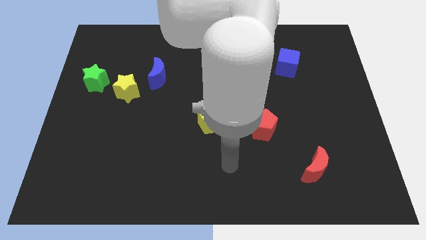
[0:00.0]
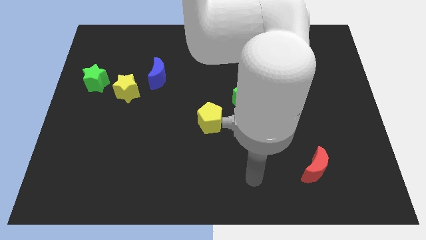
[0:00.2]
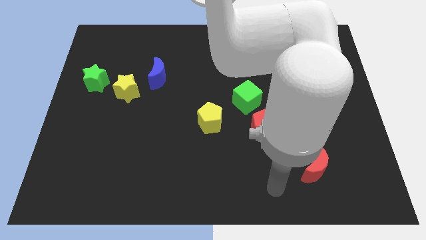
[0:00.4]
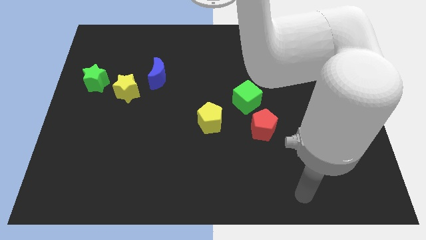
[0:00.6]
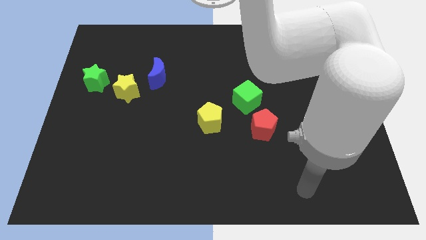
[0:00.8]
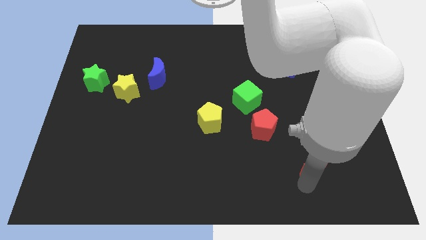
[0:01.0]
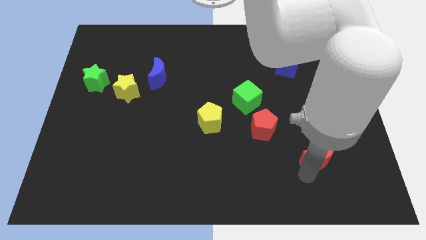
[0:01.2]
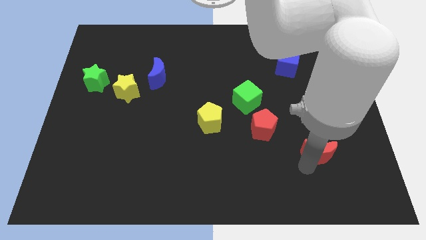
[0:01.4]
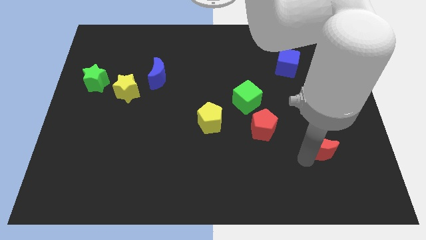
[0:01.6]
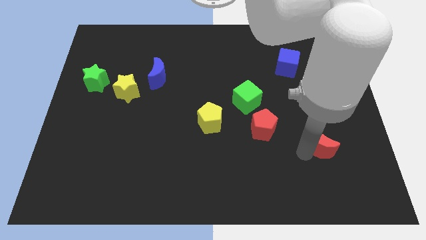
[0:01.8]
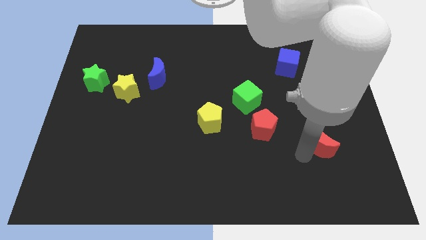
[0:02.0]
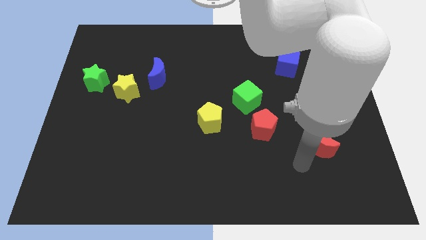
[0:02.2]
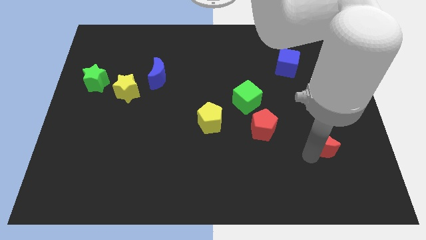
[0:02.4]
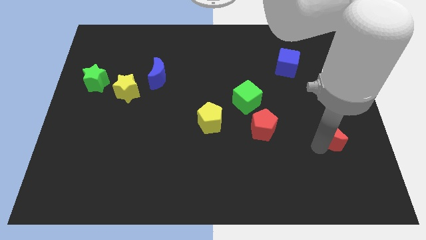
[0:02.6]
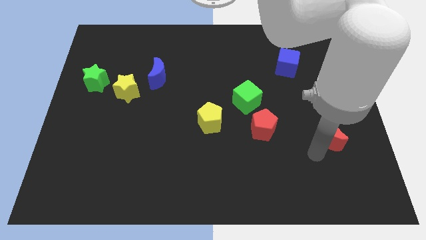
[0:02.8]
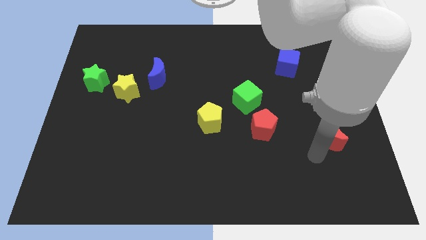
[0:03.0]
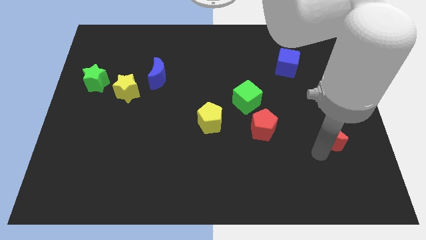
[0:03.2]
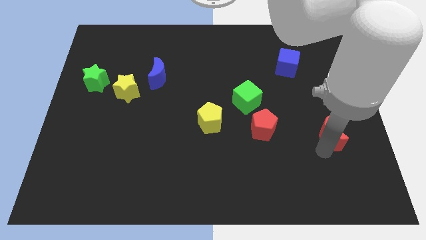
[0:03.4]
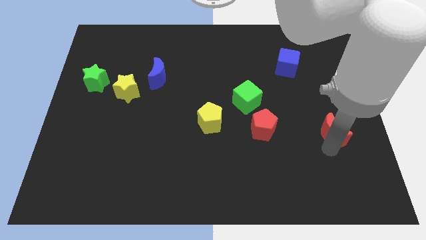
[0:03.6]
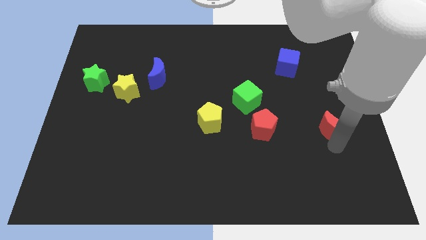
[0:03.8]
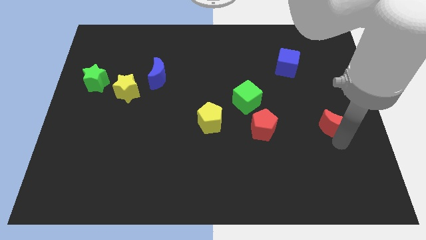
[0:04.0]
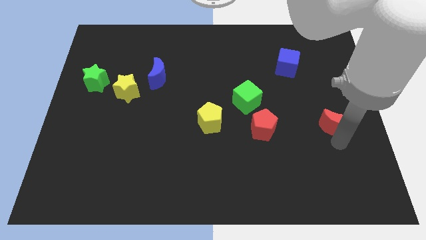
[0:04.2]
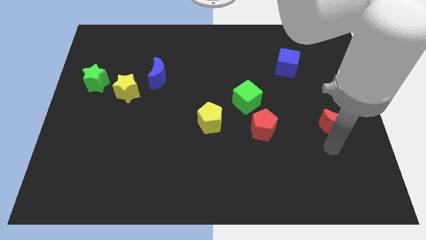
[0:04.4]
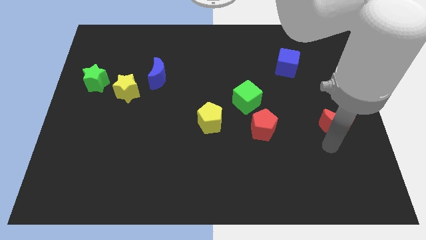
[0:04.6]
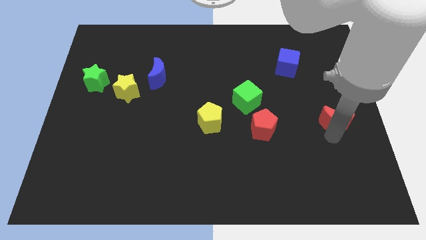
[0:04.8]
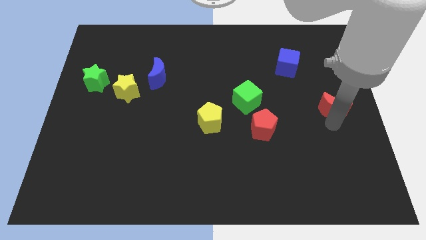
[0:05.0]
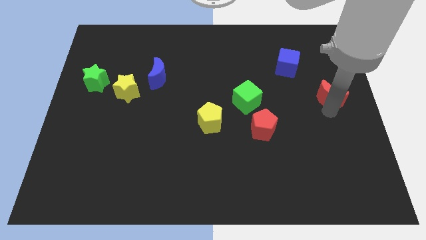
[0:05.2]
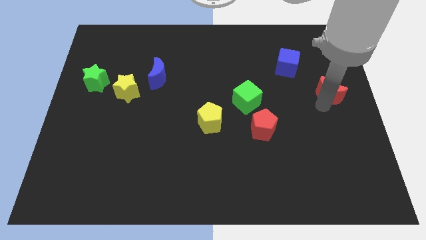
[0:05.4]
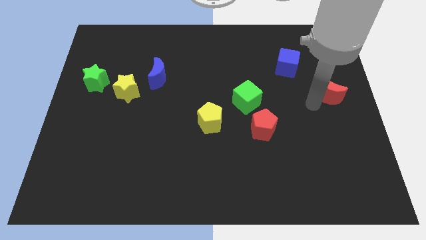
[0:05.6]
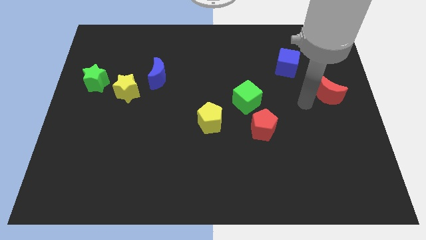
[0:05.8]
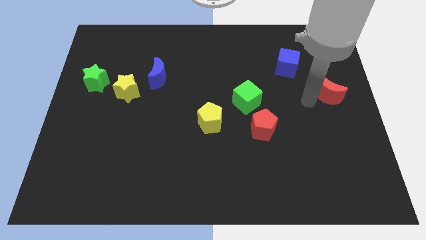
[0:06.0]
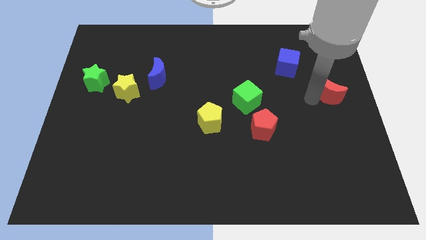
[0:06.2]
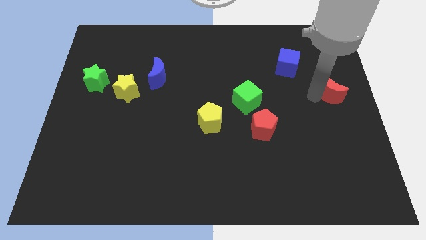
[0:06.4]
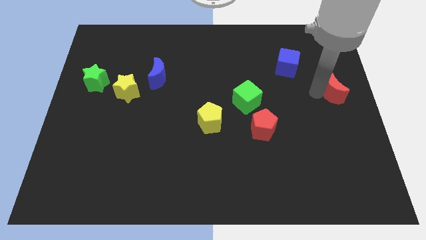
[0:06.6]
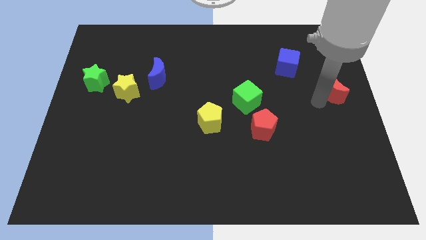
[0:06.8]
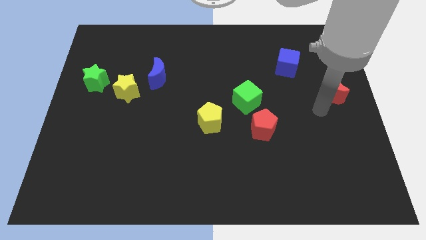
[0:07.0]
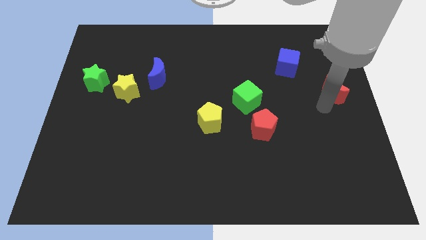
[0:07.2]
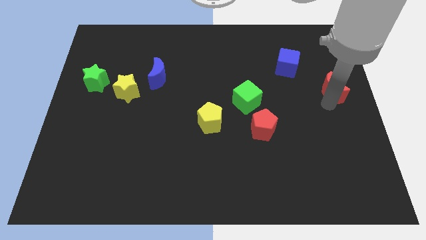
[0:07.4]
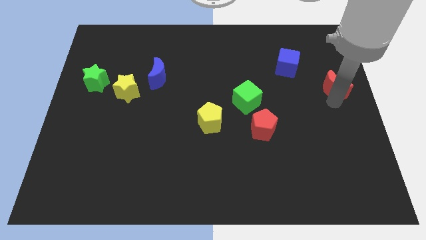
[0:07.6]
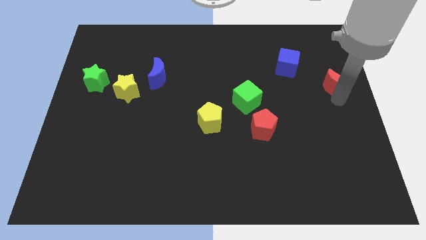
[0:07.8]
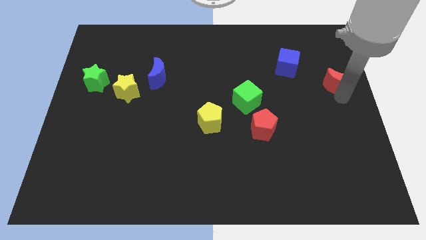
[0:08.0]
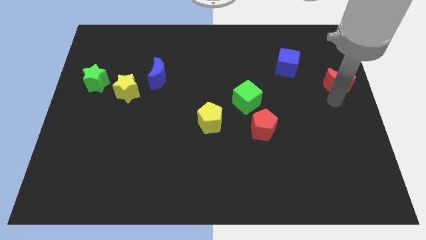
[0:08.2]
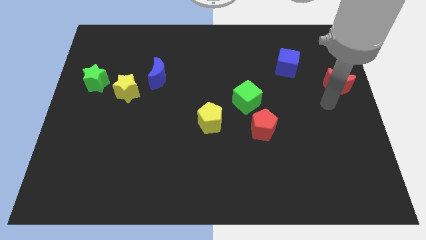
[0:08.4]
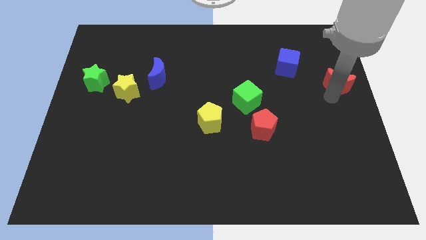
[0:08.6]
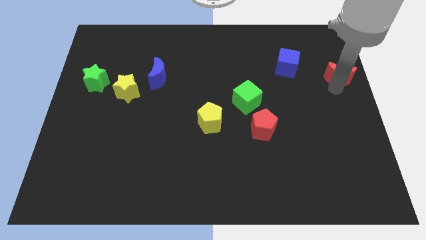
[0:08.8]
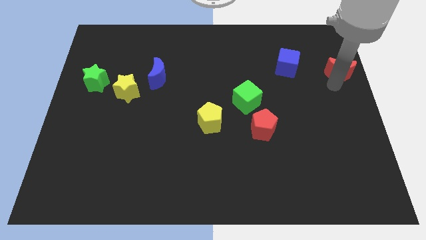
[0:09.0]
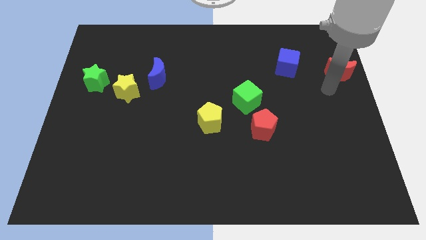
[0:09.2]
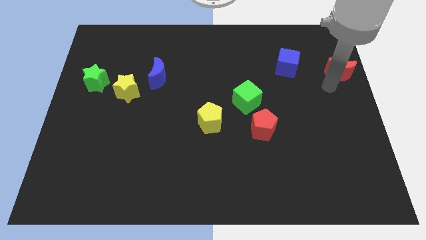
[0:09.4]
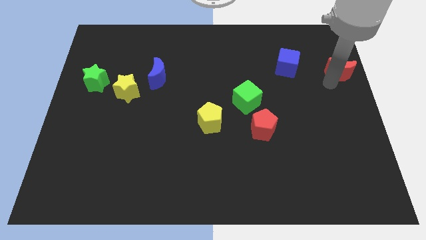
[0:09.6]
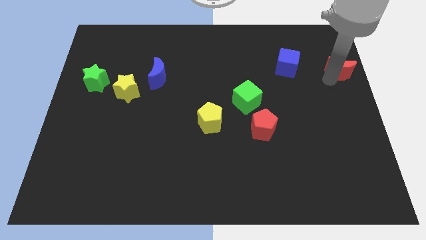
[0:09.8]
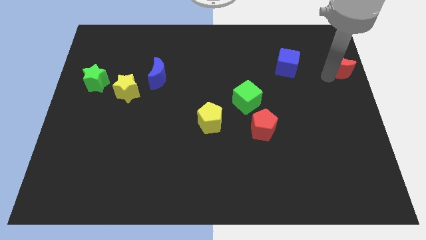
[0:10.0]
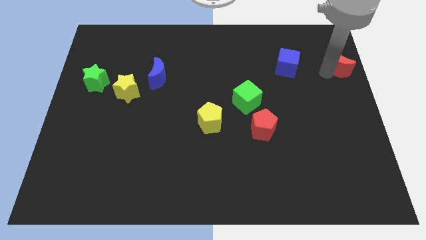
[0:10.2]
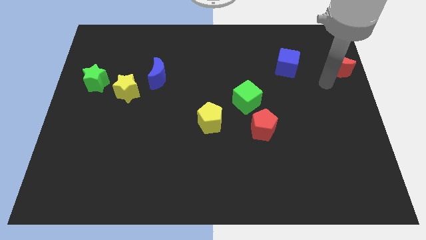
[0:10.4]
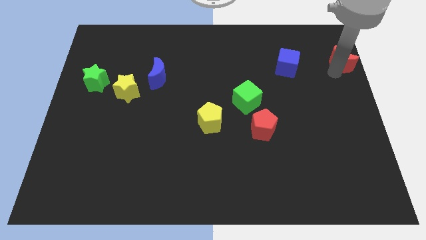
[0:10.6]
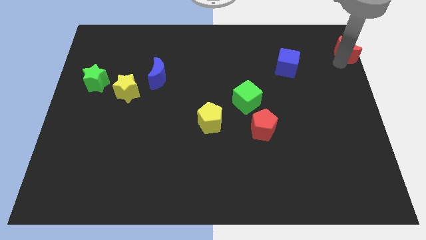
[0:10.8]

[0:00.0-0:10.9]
move the red moon to the top right corner

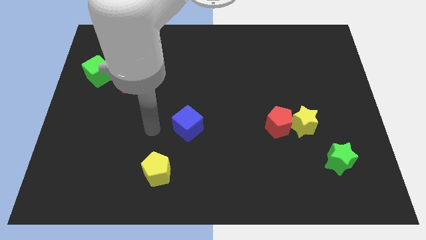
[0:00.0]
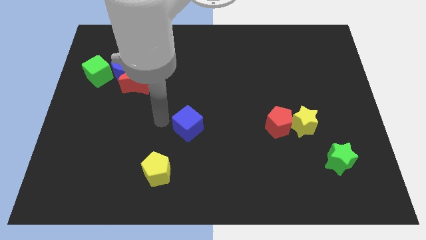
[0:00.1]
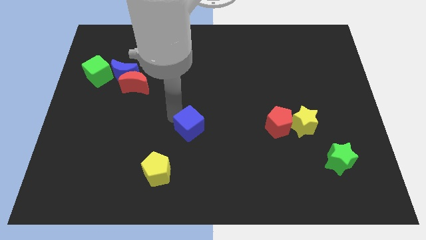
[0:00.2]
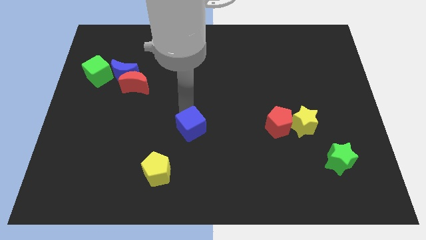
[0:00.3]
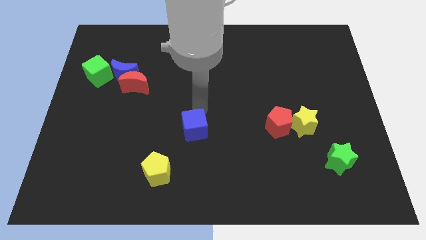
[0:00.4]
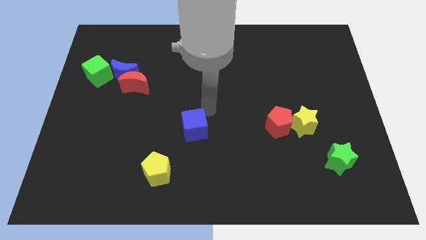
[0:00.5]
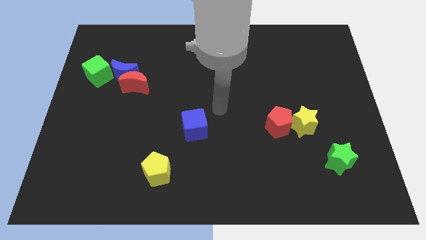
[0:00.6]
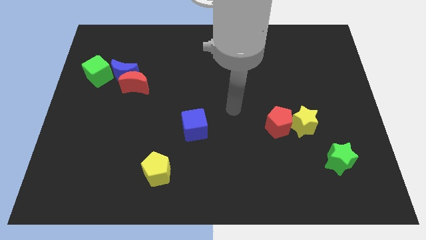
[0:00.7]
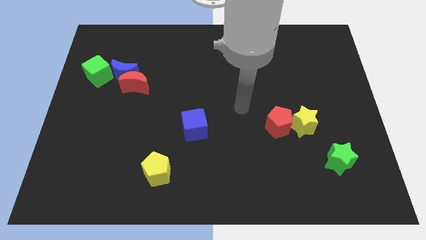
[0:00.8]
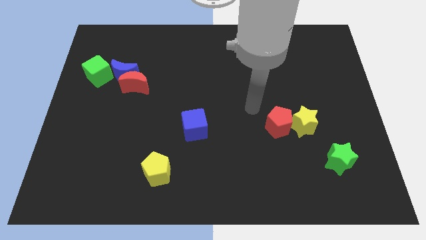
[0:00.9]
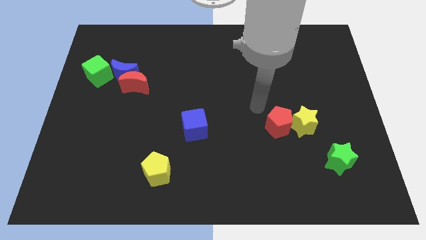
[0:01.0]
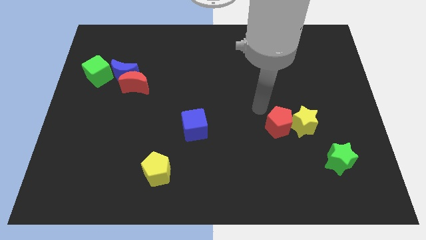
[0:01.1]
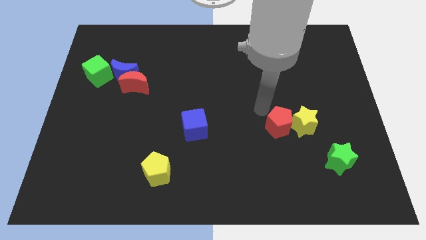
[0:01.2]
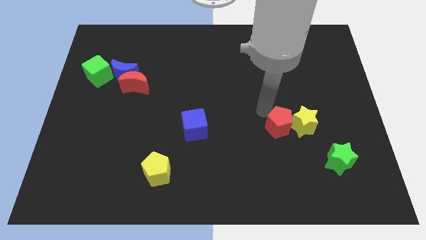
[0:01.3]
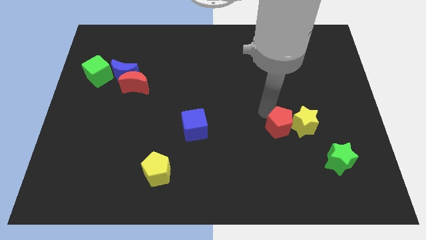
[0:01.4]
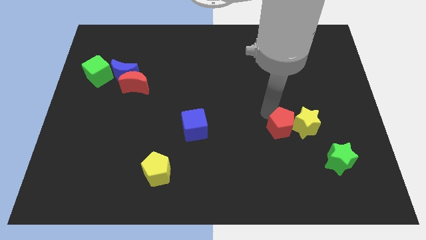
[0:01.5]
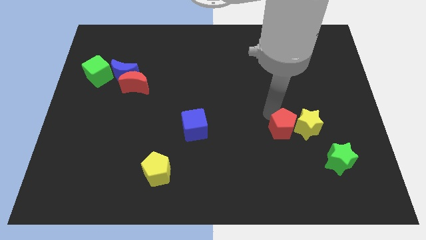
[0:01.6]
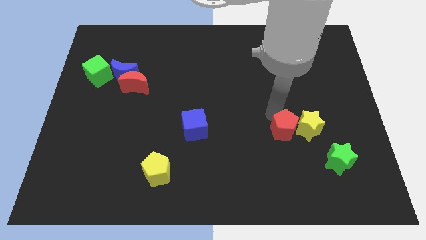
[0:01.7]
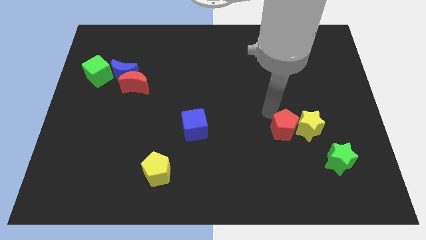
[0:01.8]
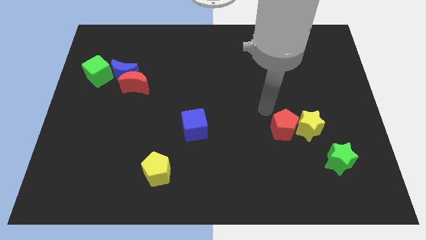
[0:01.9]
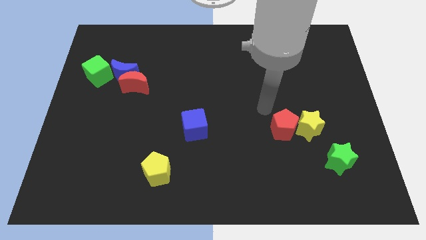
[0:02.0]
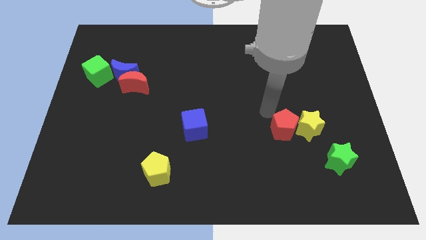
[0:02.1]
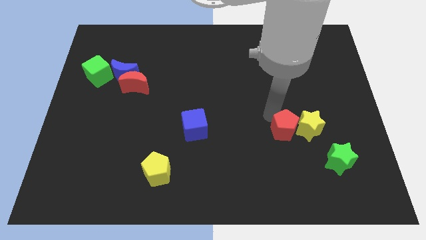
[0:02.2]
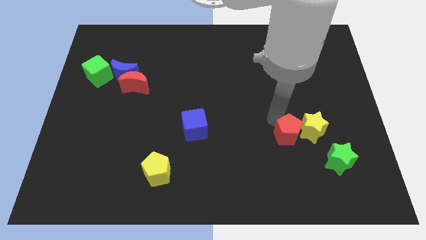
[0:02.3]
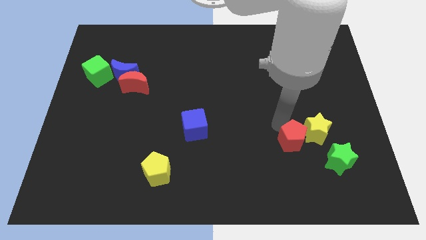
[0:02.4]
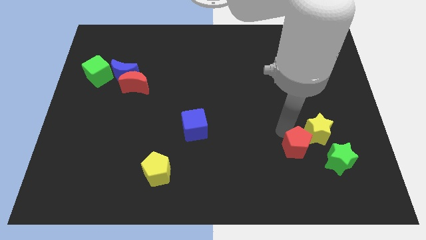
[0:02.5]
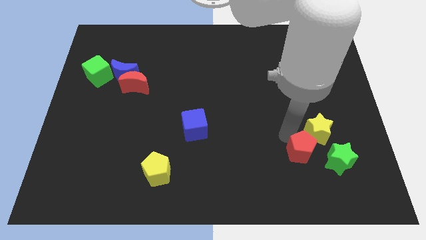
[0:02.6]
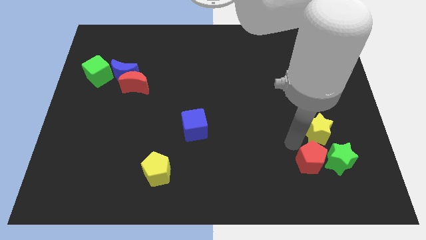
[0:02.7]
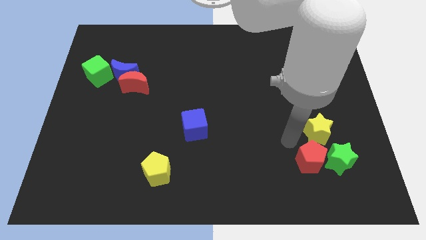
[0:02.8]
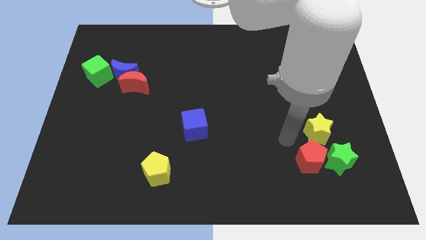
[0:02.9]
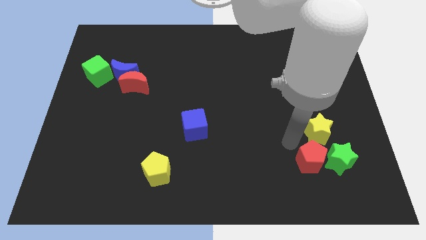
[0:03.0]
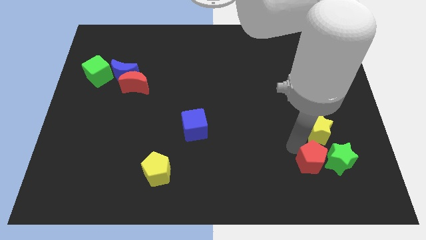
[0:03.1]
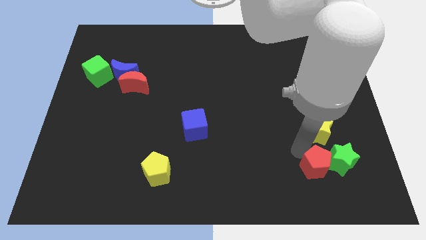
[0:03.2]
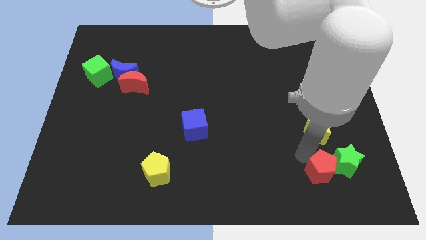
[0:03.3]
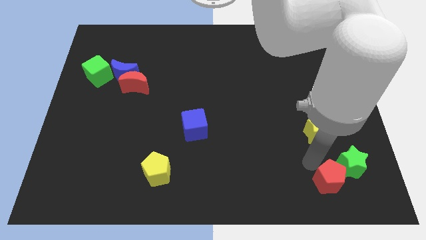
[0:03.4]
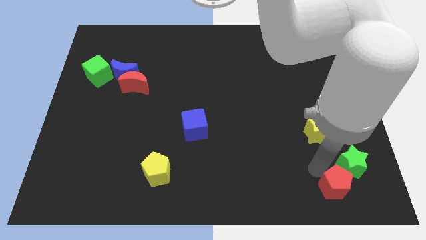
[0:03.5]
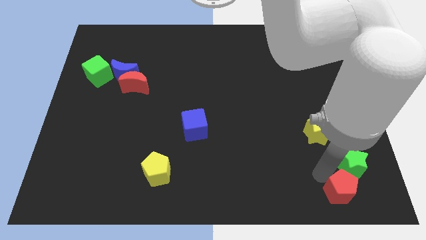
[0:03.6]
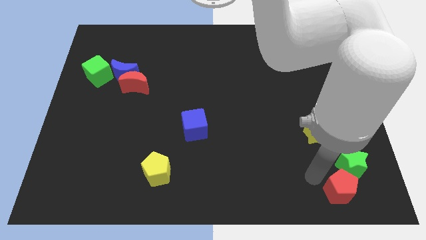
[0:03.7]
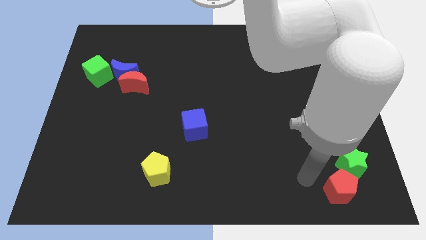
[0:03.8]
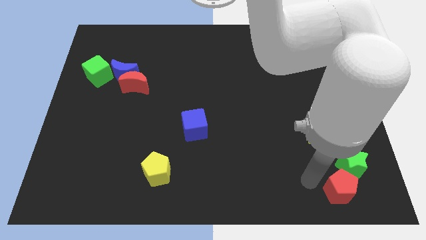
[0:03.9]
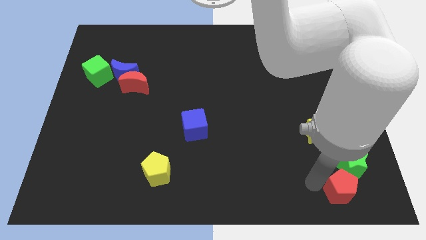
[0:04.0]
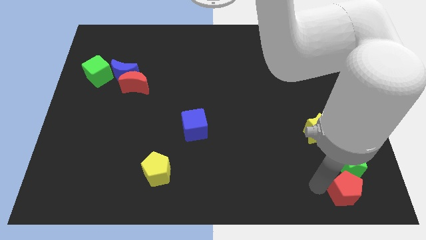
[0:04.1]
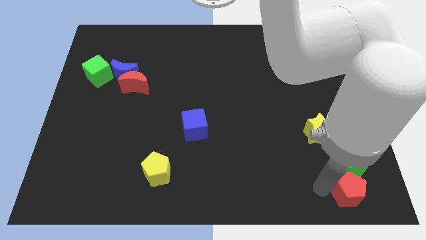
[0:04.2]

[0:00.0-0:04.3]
slide the red pentagon to the bottom right corner
